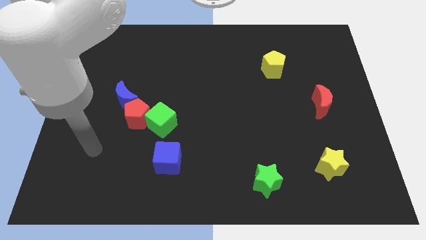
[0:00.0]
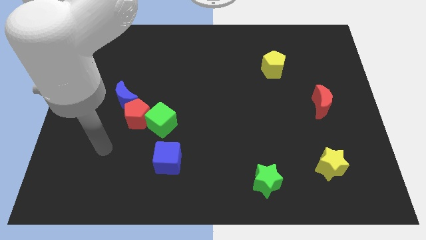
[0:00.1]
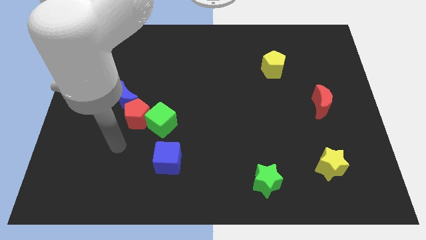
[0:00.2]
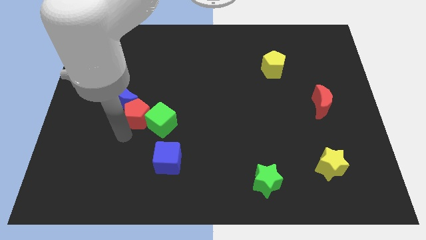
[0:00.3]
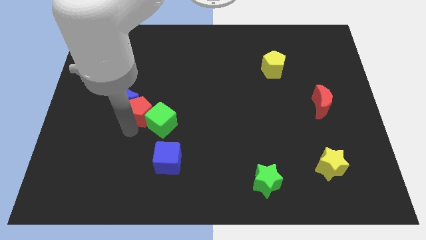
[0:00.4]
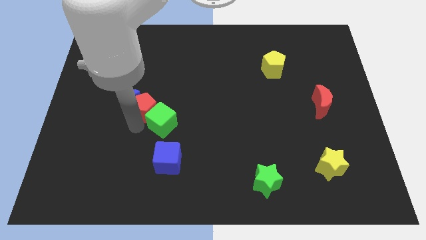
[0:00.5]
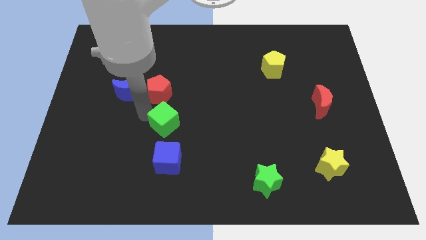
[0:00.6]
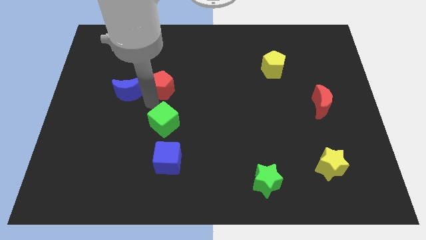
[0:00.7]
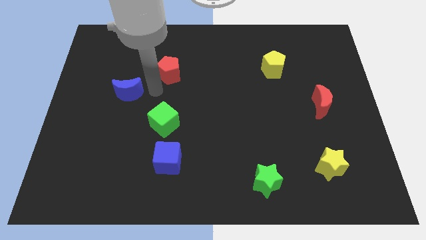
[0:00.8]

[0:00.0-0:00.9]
separate the blue moon from the red pentagon

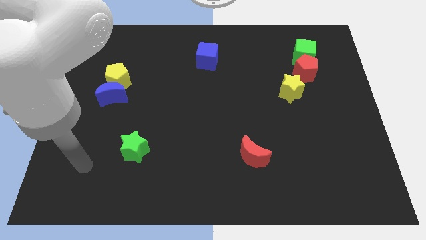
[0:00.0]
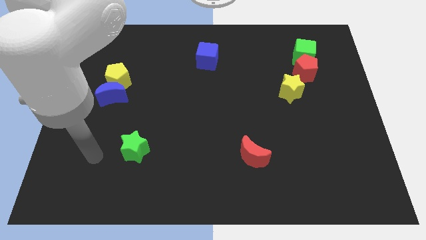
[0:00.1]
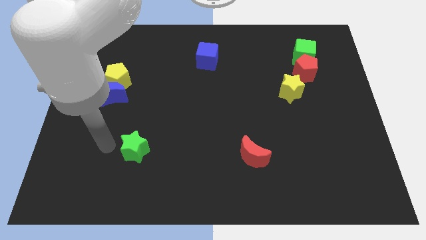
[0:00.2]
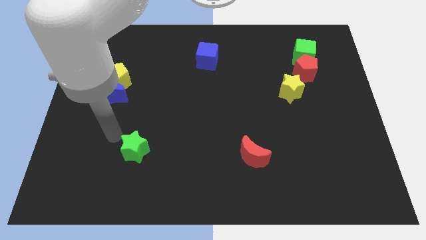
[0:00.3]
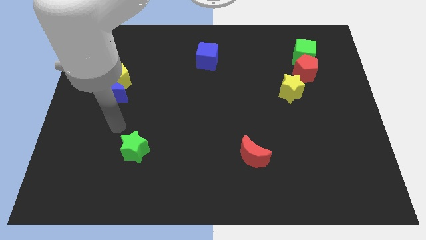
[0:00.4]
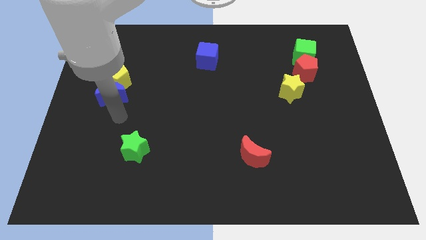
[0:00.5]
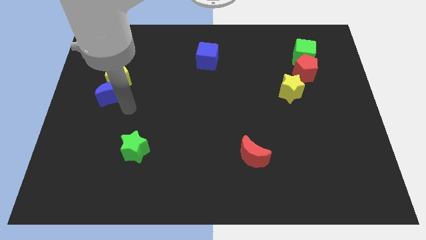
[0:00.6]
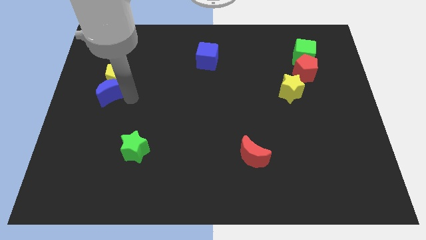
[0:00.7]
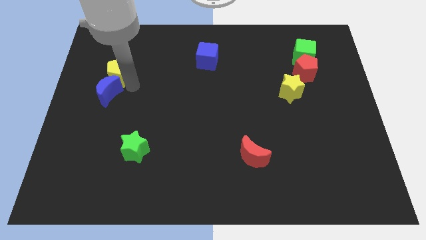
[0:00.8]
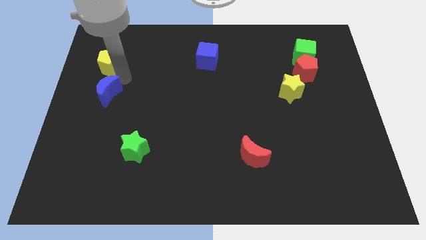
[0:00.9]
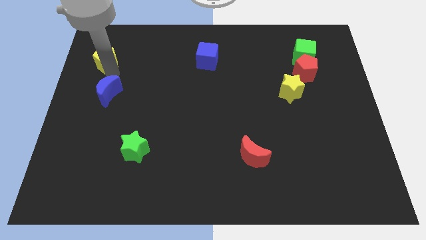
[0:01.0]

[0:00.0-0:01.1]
separate the blue moon from the yellow pentagon

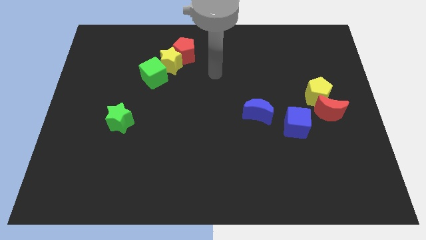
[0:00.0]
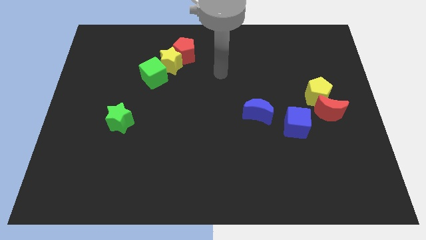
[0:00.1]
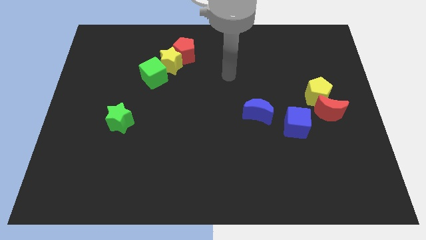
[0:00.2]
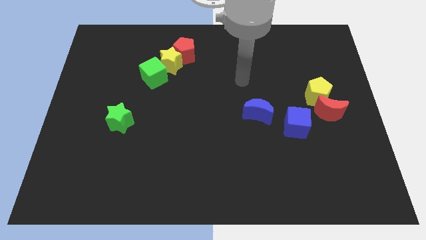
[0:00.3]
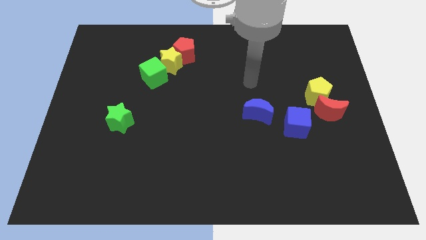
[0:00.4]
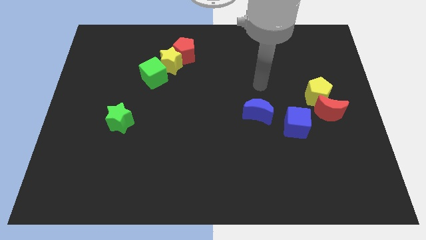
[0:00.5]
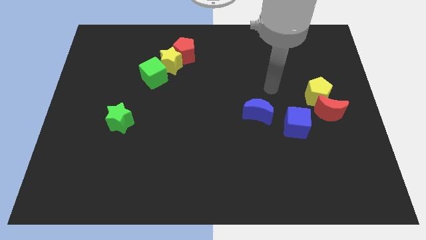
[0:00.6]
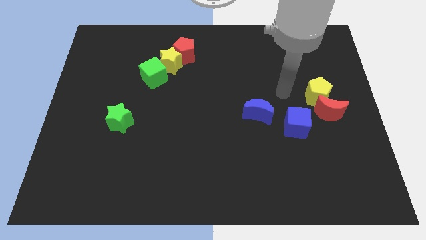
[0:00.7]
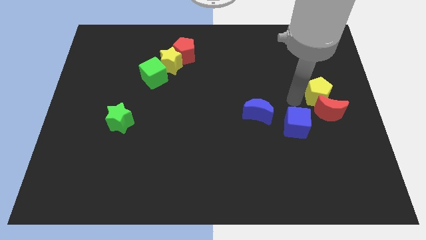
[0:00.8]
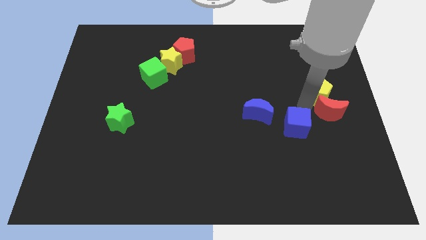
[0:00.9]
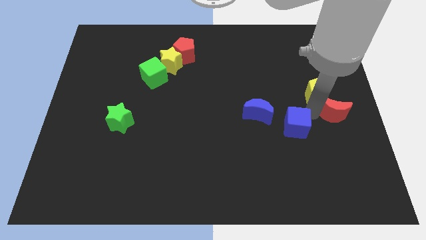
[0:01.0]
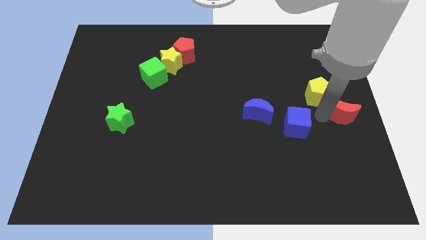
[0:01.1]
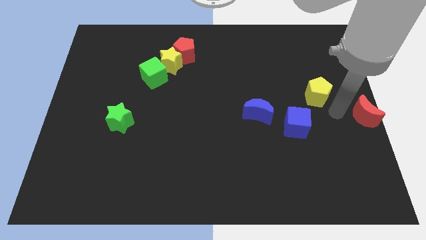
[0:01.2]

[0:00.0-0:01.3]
pull the yellow pentagon apart from the red moon

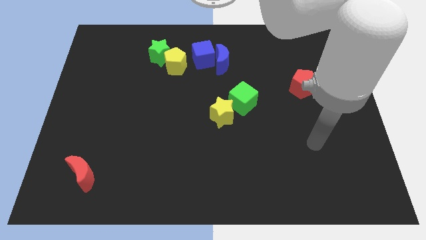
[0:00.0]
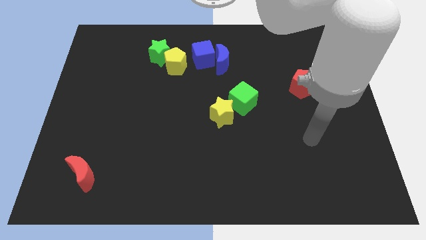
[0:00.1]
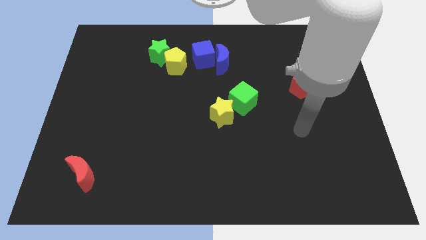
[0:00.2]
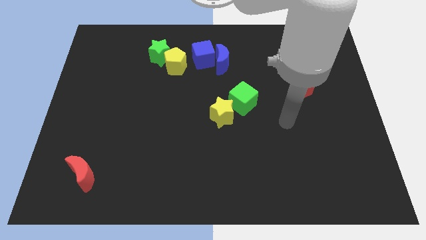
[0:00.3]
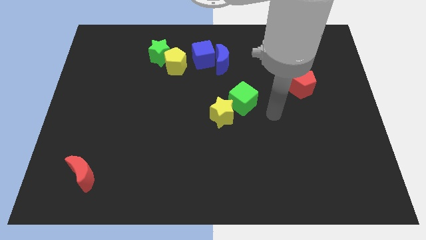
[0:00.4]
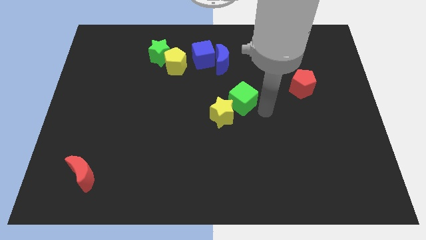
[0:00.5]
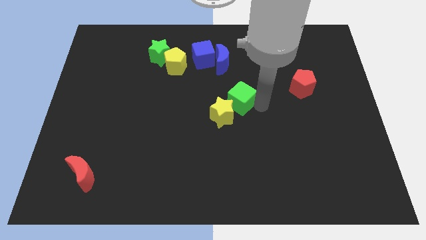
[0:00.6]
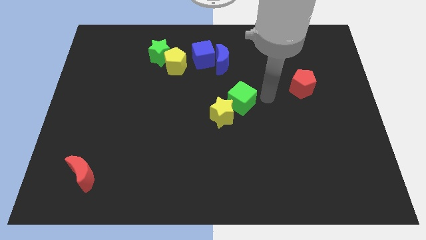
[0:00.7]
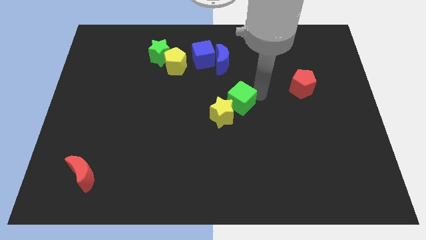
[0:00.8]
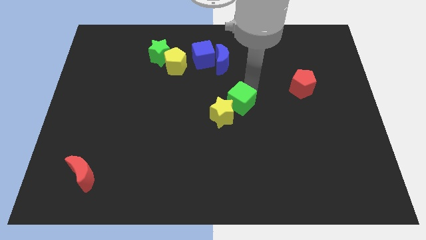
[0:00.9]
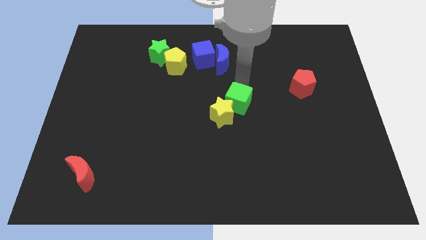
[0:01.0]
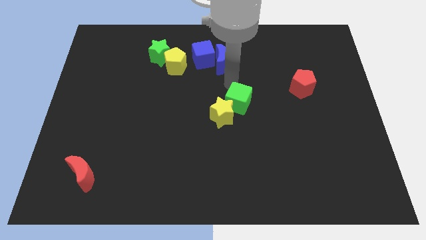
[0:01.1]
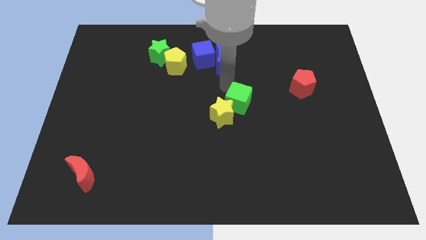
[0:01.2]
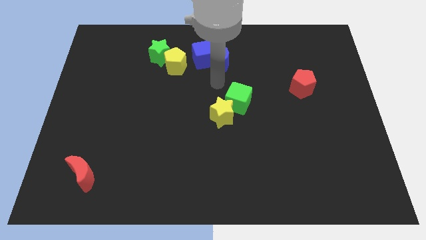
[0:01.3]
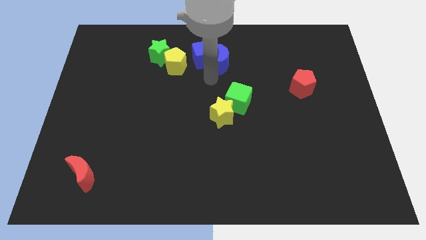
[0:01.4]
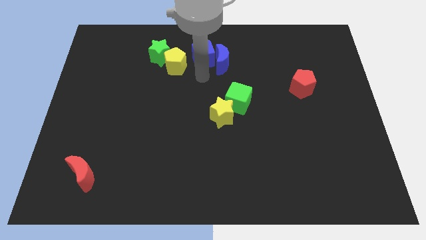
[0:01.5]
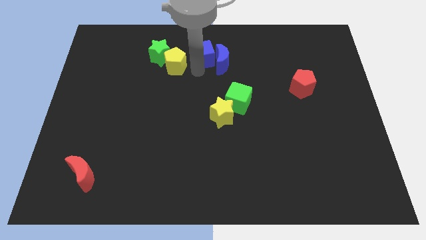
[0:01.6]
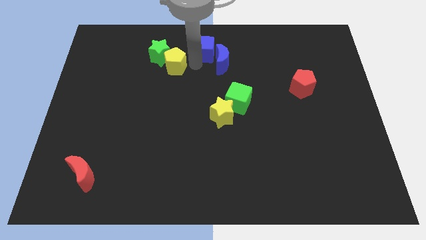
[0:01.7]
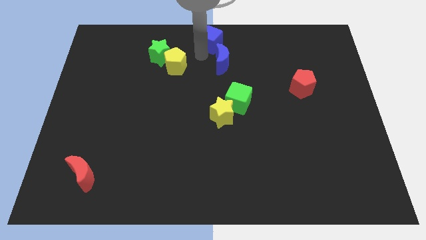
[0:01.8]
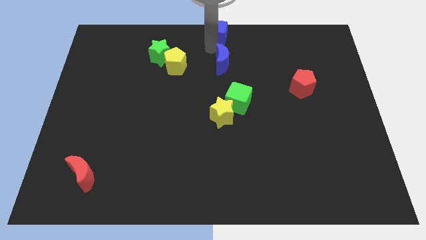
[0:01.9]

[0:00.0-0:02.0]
separate the blue moon from the blue cube

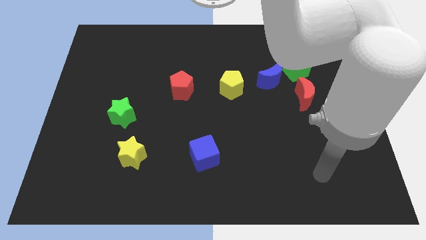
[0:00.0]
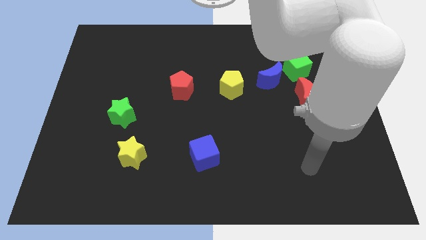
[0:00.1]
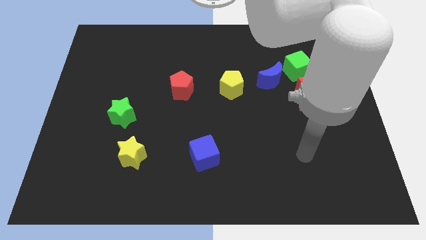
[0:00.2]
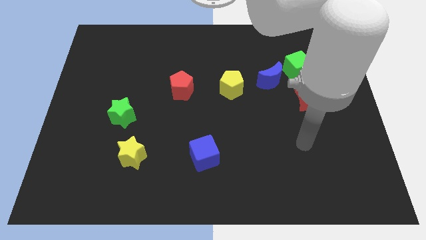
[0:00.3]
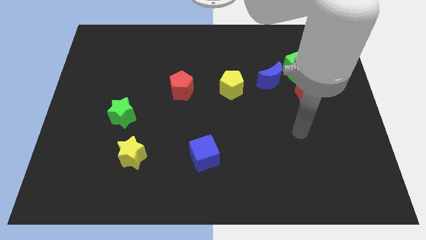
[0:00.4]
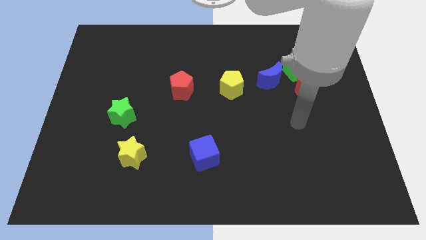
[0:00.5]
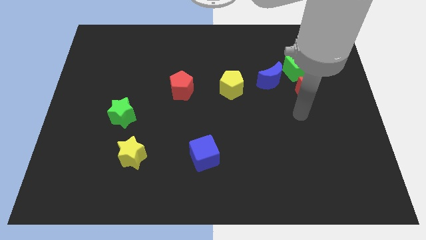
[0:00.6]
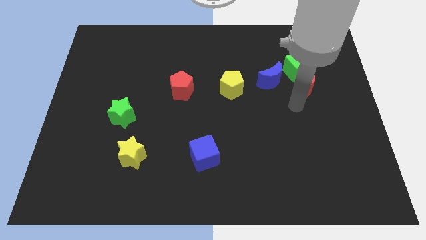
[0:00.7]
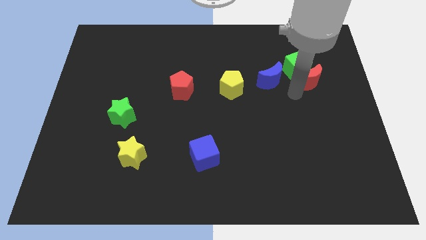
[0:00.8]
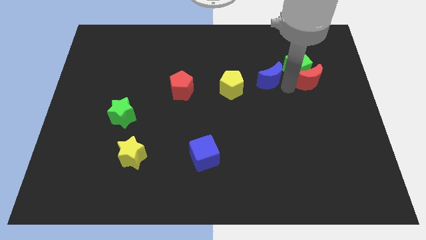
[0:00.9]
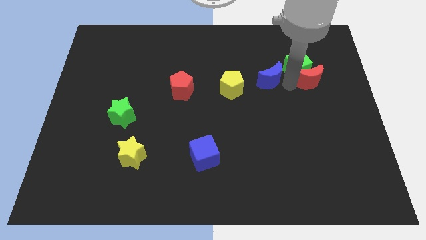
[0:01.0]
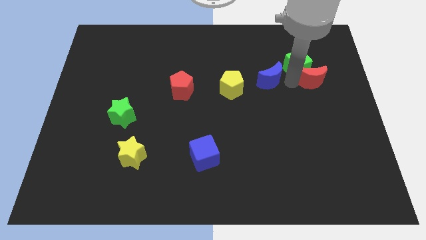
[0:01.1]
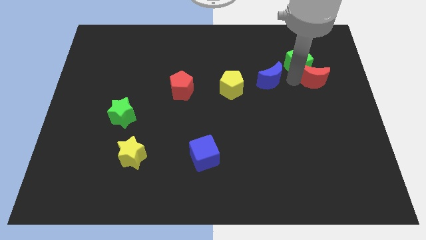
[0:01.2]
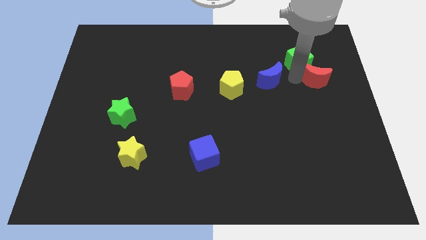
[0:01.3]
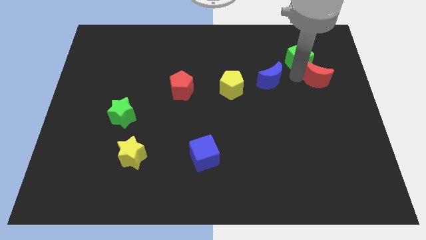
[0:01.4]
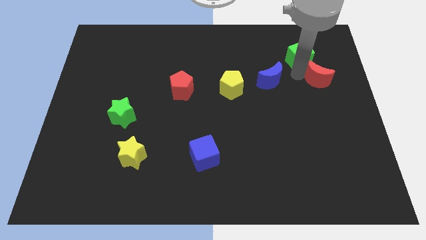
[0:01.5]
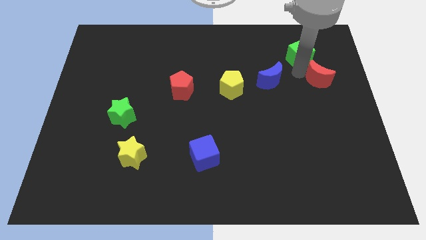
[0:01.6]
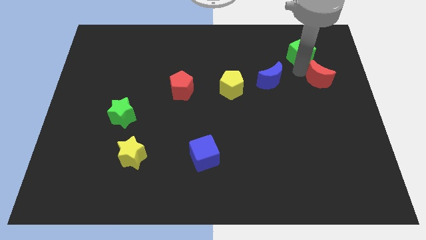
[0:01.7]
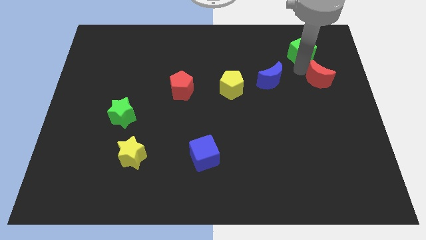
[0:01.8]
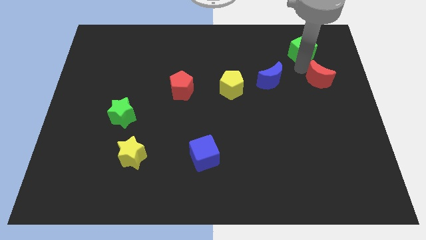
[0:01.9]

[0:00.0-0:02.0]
move the green cube away from the blue moon and red moon

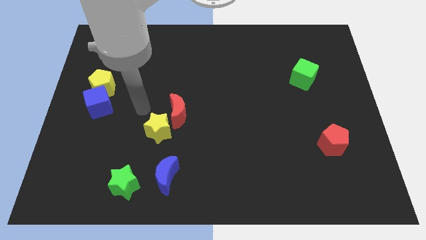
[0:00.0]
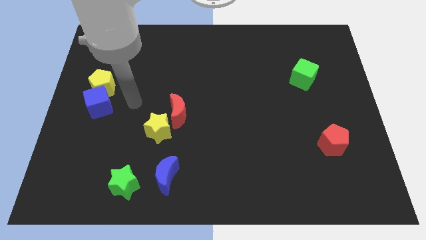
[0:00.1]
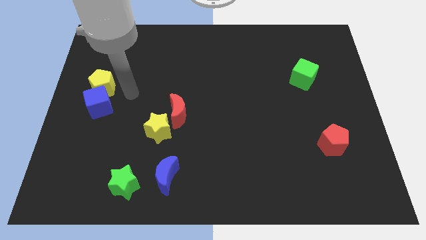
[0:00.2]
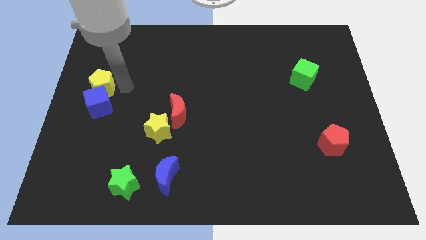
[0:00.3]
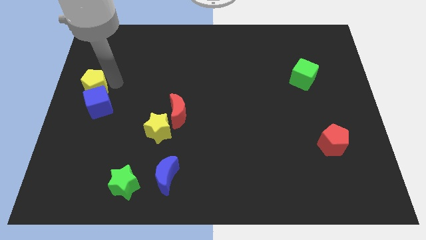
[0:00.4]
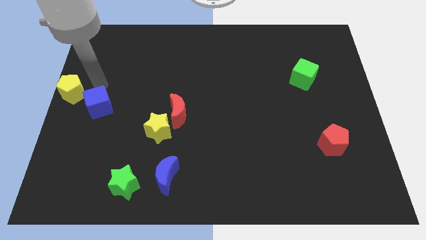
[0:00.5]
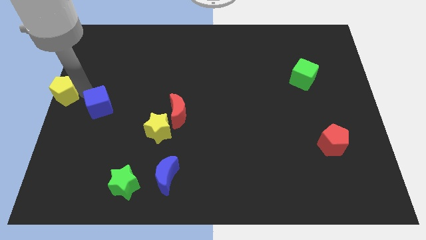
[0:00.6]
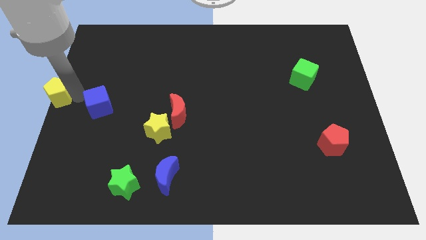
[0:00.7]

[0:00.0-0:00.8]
separate the blue cube from the yellow pentagon

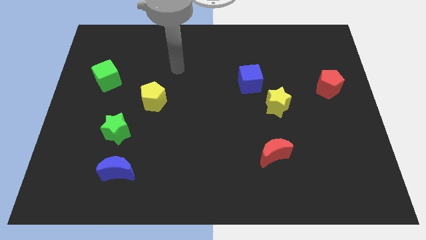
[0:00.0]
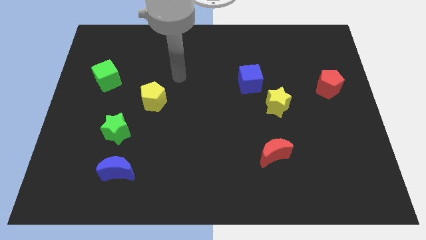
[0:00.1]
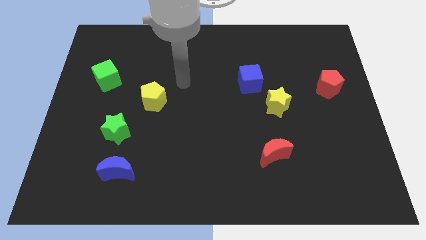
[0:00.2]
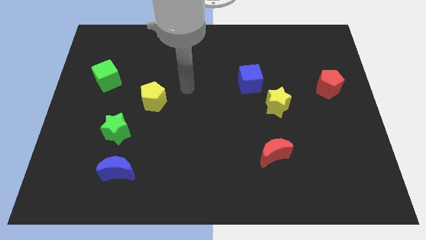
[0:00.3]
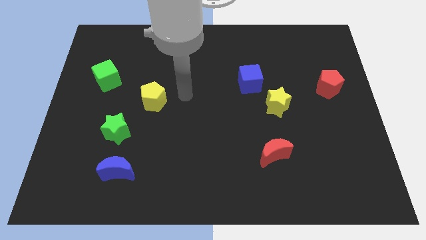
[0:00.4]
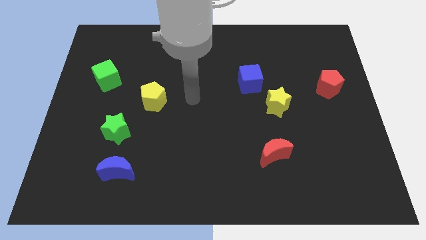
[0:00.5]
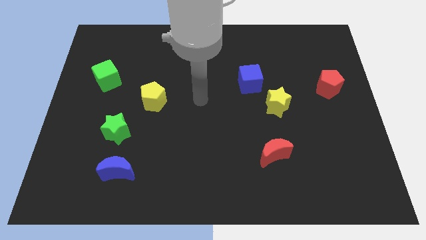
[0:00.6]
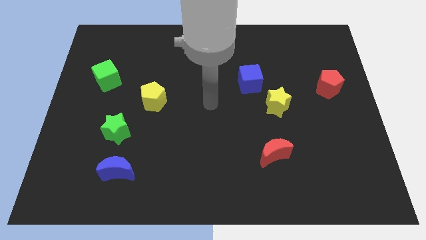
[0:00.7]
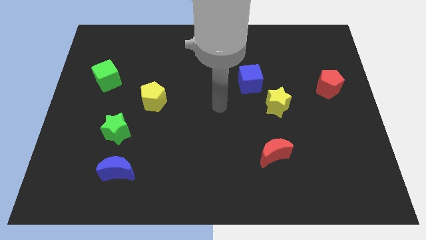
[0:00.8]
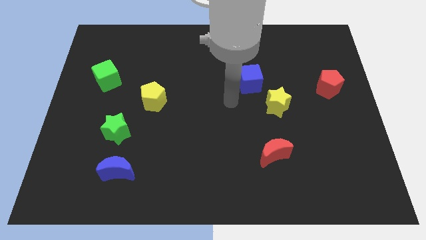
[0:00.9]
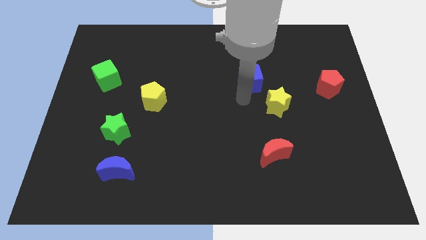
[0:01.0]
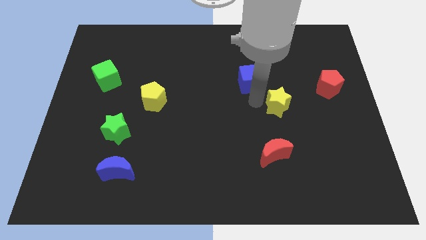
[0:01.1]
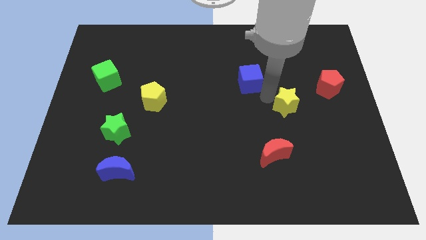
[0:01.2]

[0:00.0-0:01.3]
move the blue cube away from the yellow star
